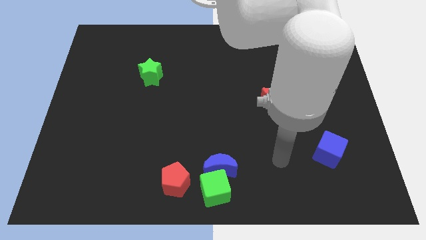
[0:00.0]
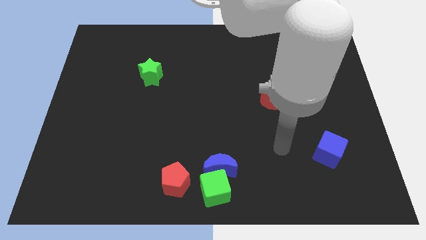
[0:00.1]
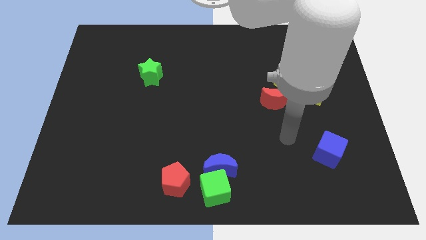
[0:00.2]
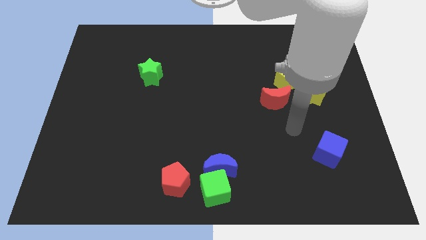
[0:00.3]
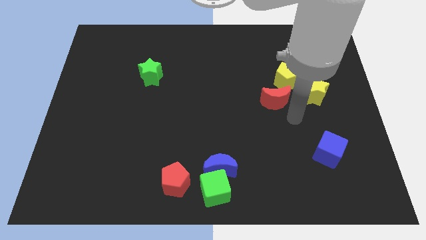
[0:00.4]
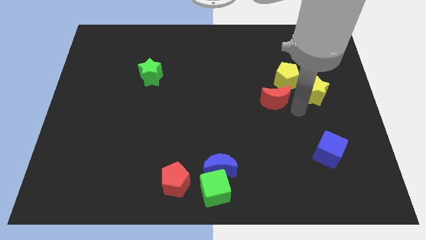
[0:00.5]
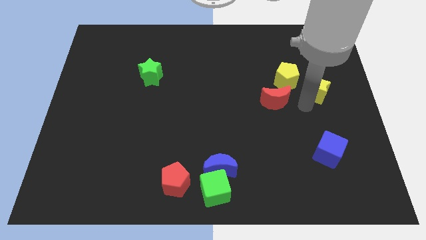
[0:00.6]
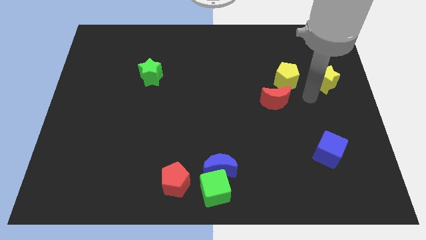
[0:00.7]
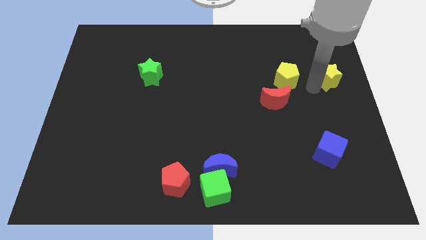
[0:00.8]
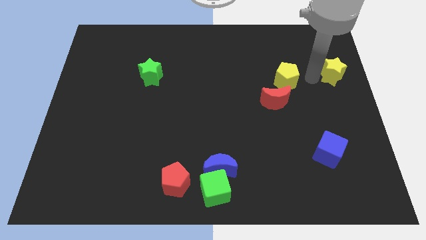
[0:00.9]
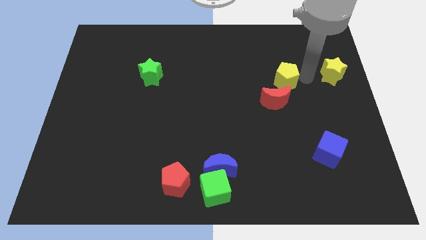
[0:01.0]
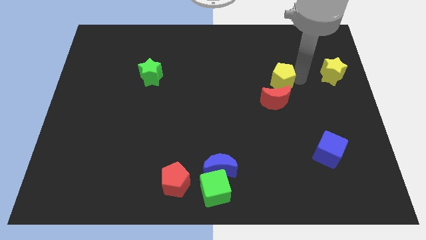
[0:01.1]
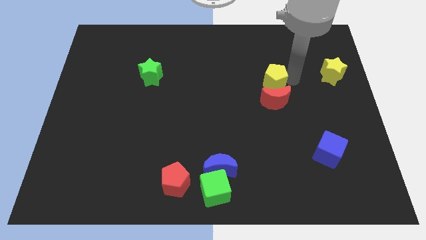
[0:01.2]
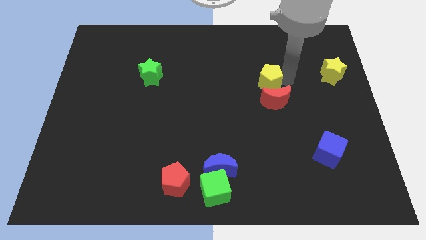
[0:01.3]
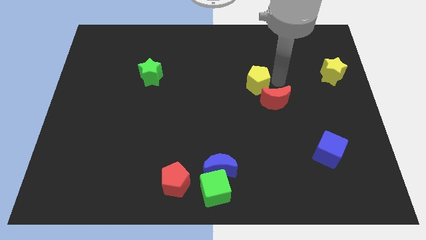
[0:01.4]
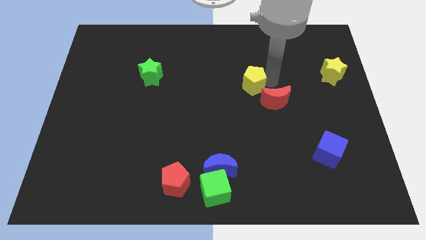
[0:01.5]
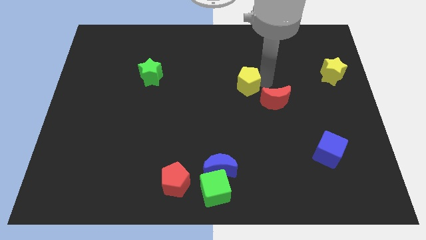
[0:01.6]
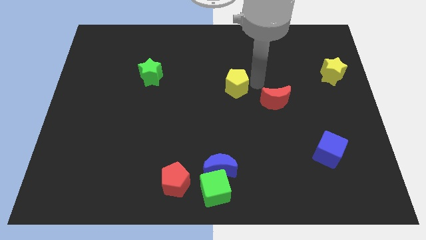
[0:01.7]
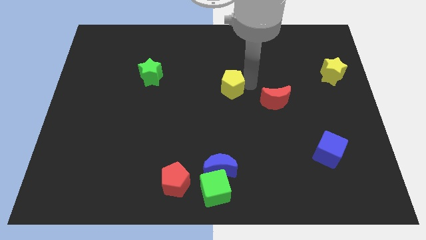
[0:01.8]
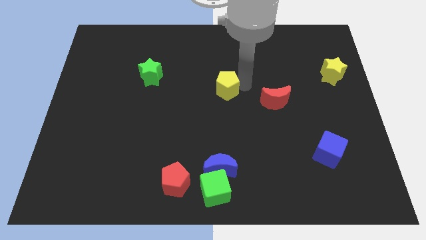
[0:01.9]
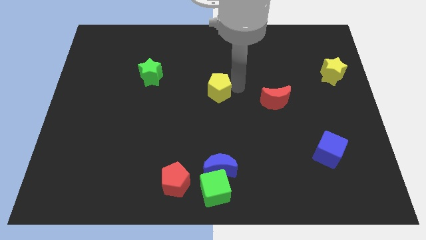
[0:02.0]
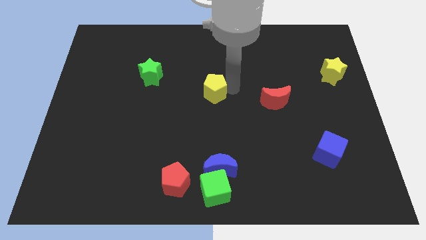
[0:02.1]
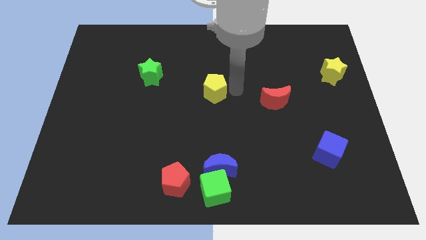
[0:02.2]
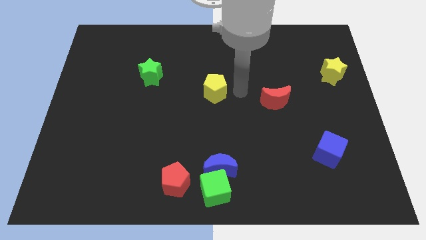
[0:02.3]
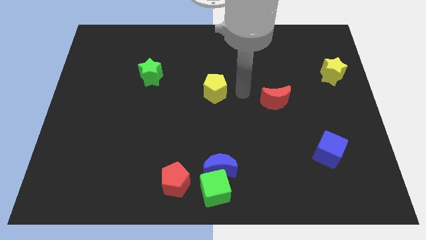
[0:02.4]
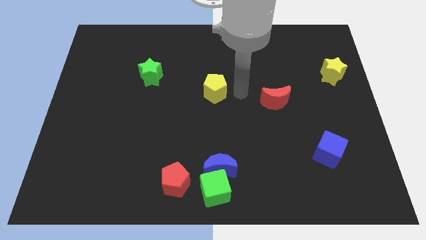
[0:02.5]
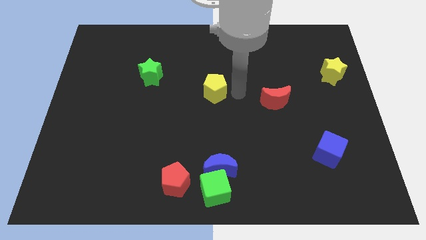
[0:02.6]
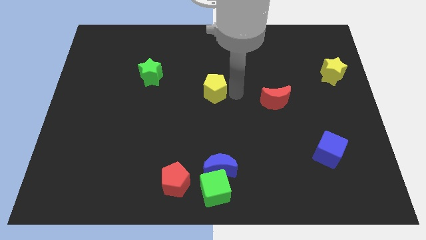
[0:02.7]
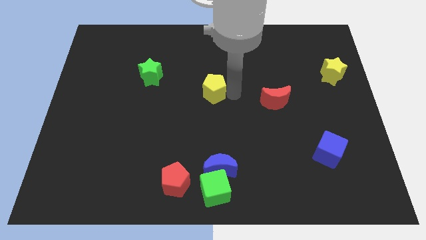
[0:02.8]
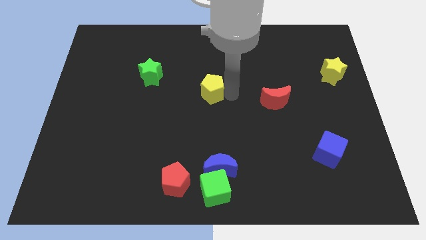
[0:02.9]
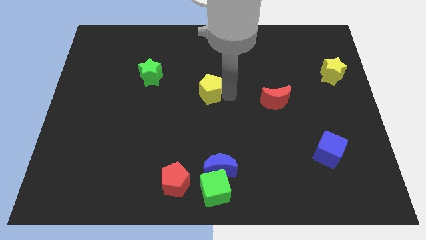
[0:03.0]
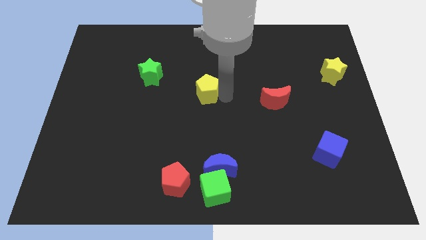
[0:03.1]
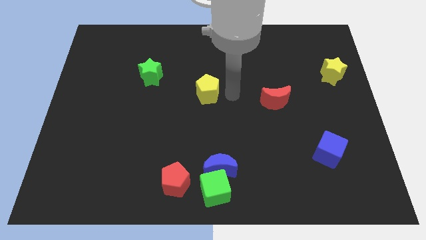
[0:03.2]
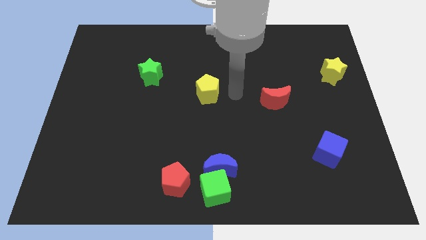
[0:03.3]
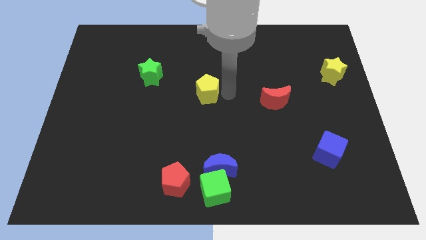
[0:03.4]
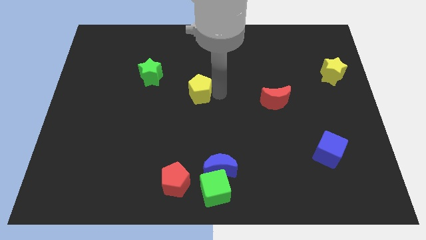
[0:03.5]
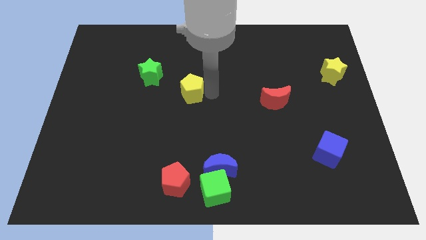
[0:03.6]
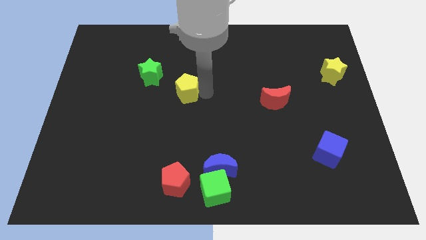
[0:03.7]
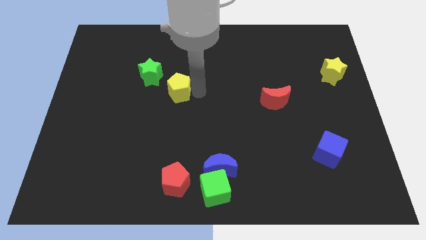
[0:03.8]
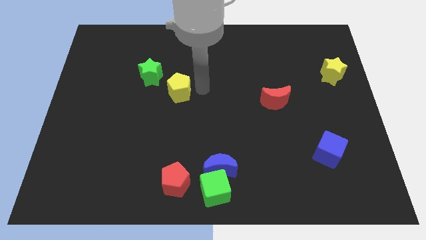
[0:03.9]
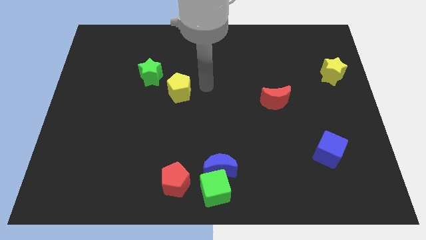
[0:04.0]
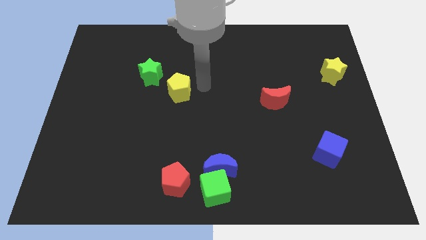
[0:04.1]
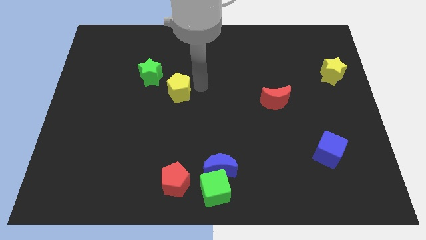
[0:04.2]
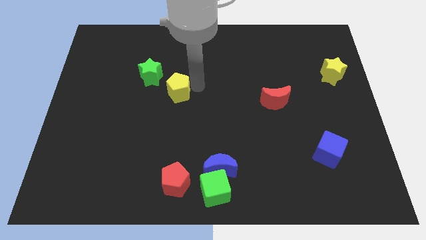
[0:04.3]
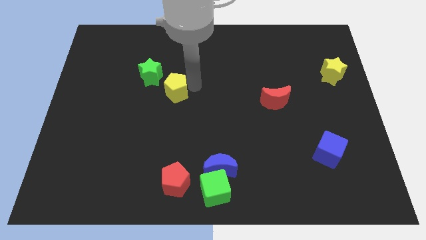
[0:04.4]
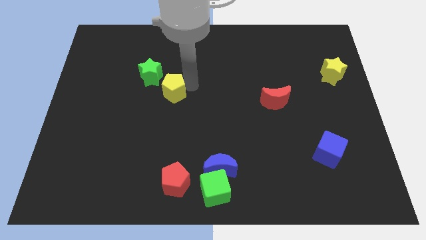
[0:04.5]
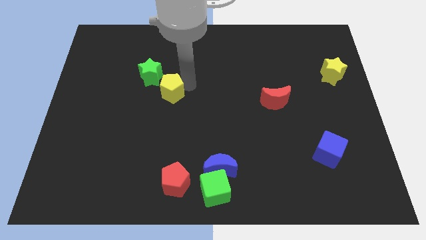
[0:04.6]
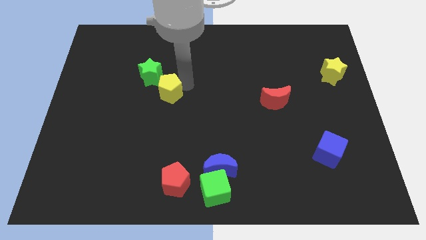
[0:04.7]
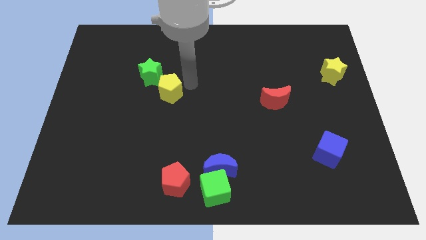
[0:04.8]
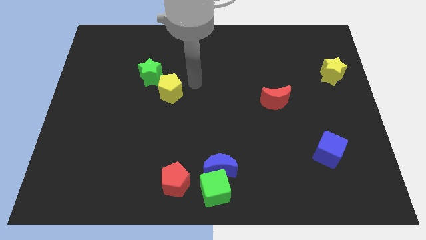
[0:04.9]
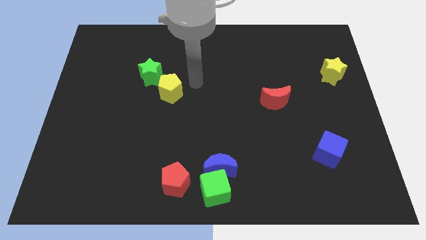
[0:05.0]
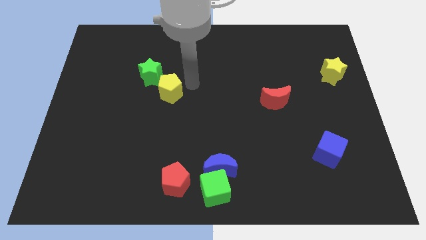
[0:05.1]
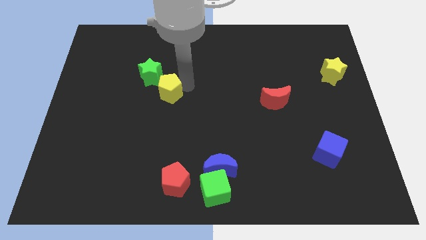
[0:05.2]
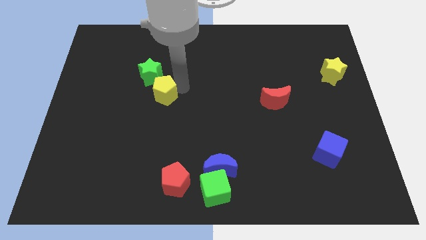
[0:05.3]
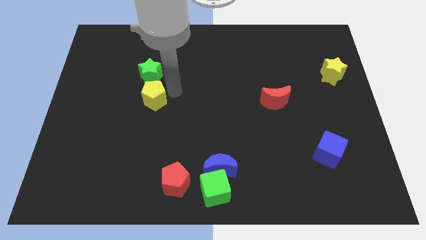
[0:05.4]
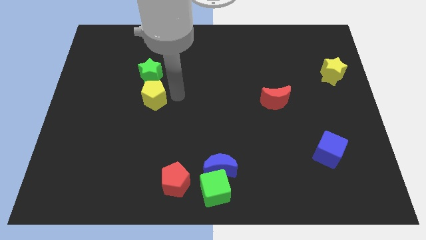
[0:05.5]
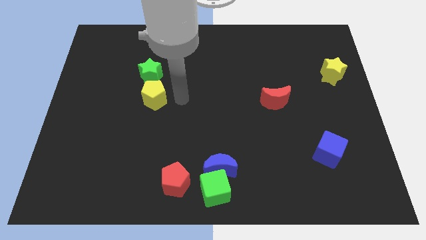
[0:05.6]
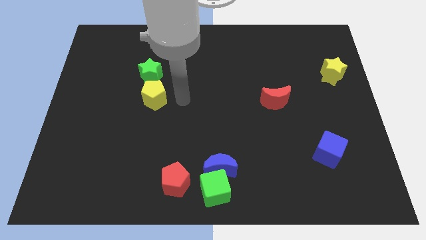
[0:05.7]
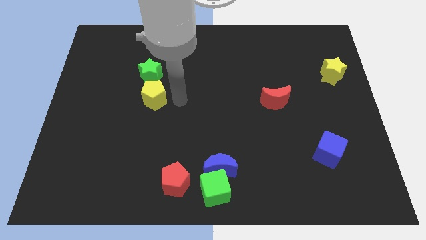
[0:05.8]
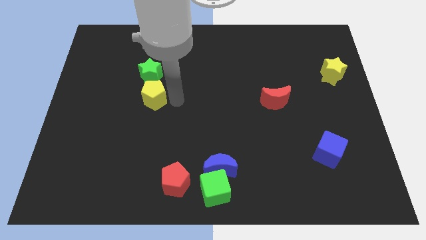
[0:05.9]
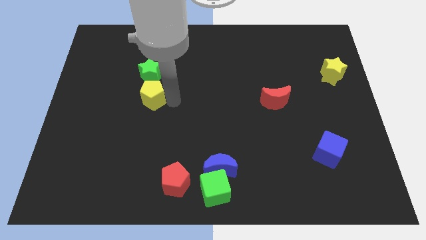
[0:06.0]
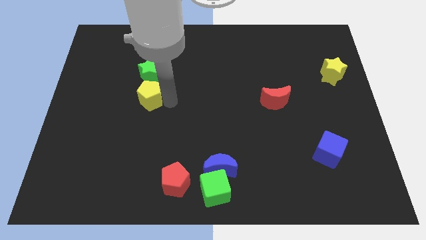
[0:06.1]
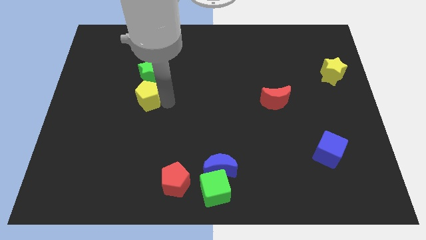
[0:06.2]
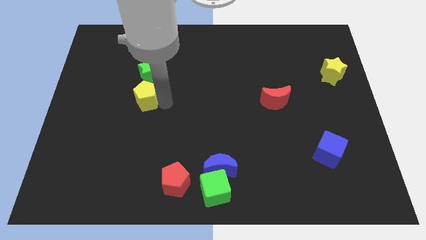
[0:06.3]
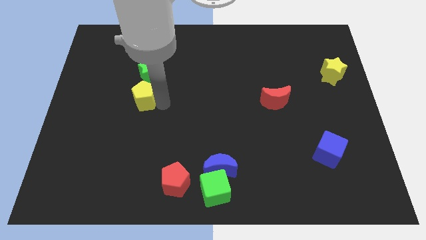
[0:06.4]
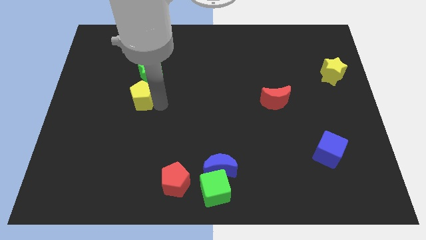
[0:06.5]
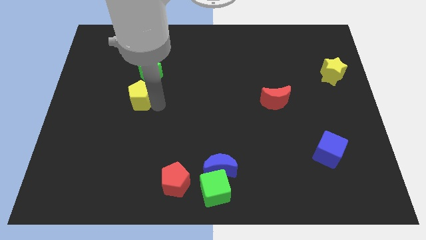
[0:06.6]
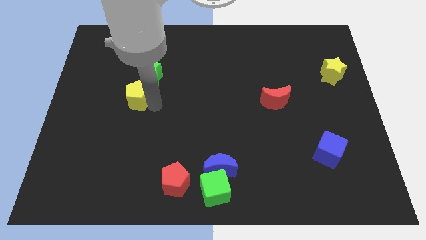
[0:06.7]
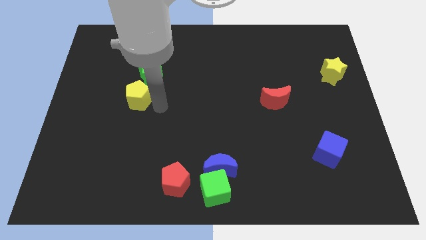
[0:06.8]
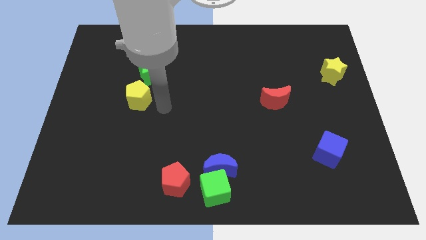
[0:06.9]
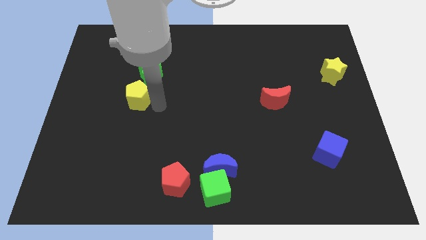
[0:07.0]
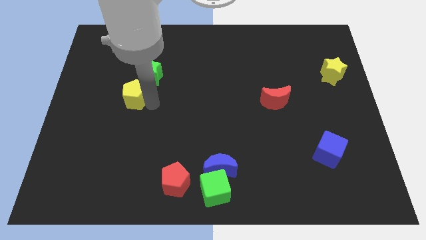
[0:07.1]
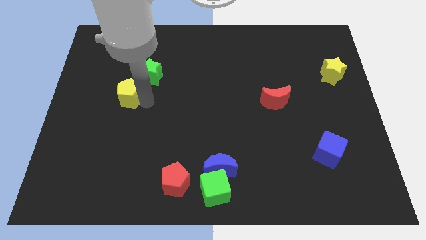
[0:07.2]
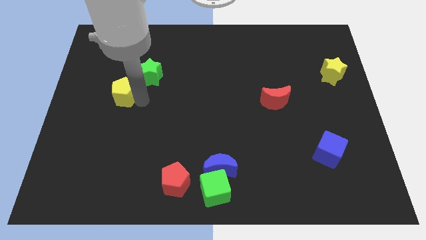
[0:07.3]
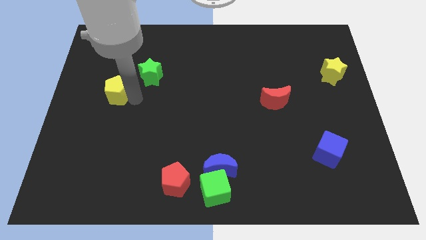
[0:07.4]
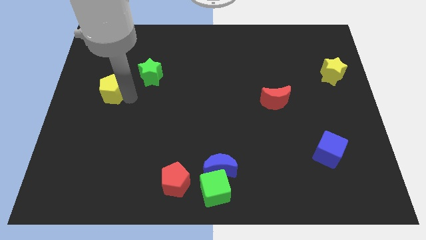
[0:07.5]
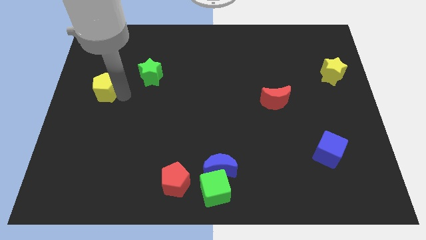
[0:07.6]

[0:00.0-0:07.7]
slide the yellow pentagon to the left side of the board
